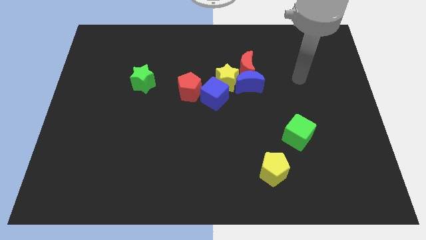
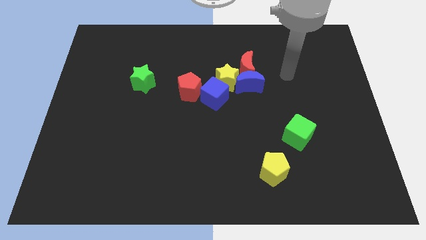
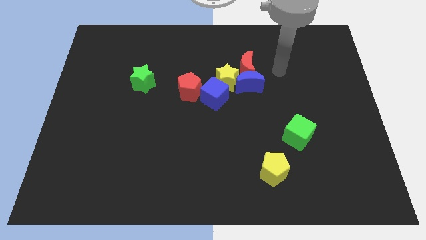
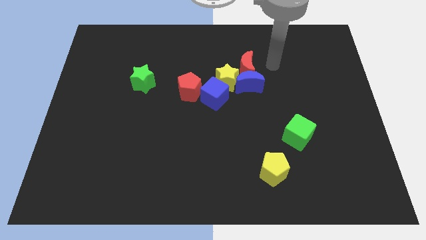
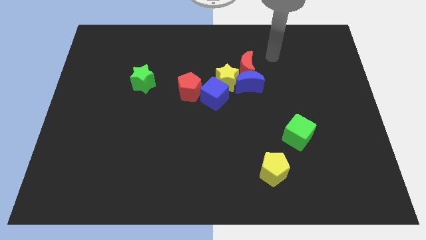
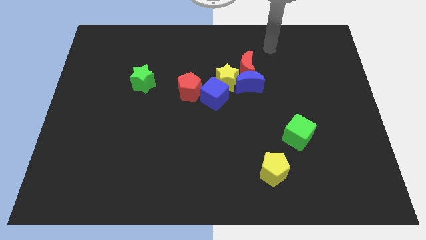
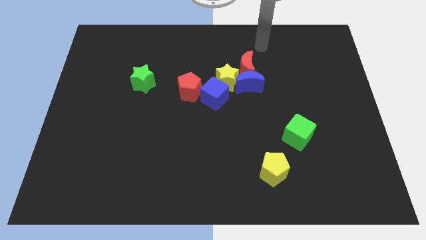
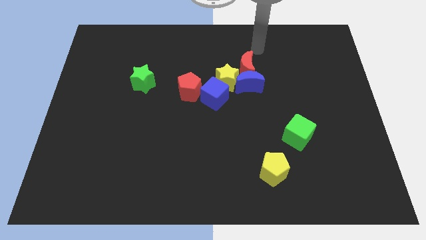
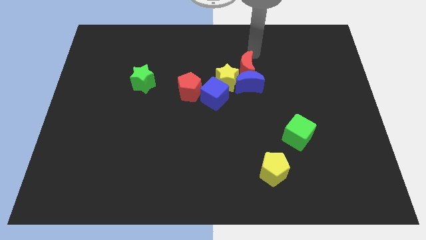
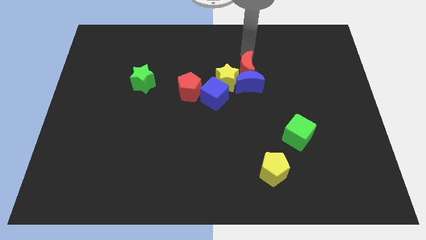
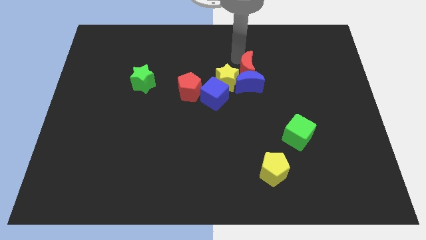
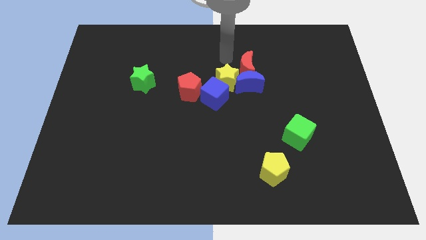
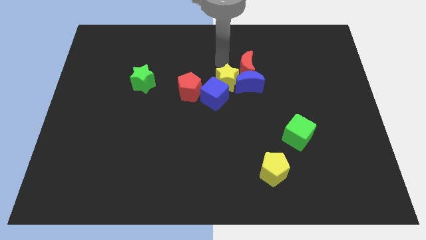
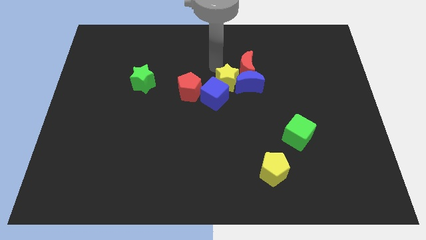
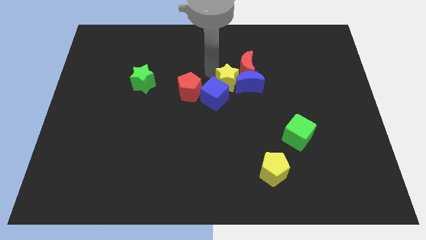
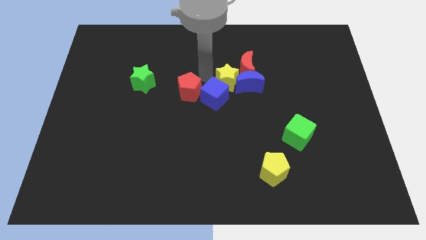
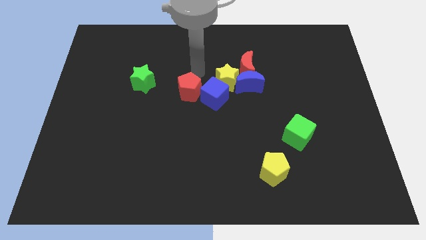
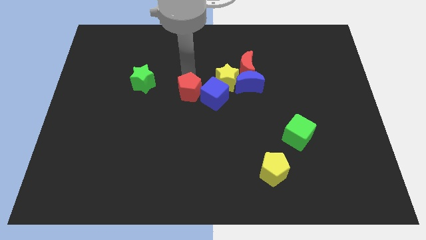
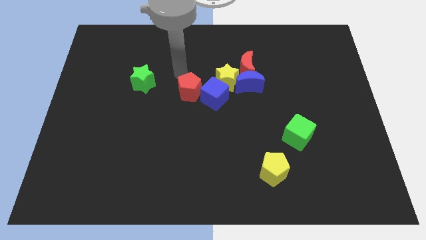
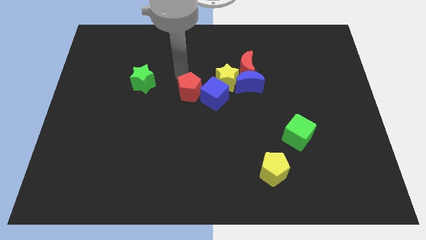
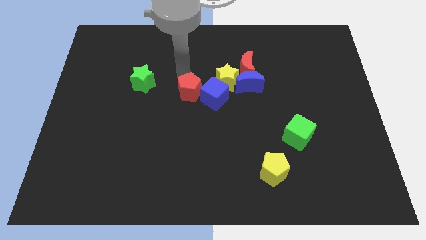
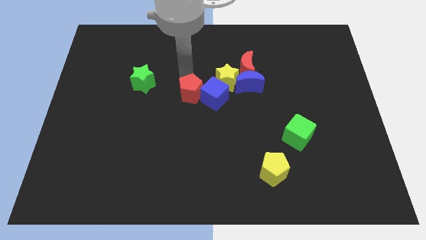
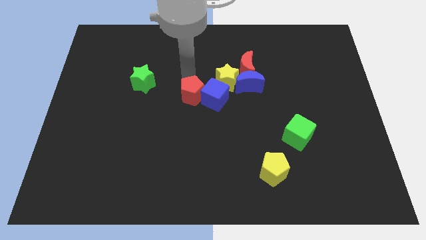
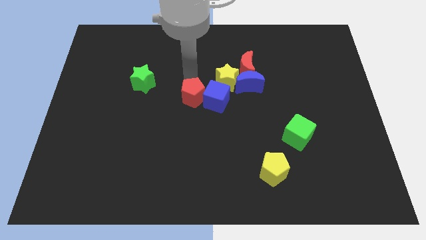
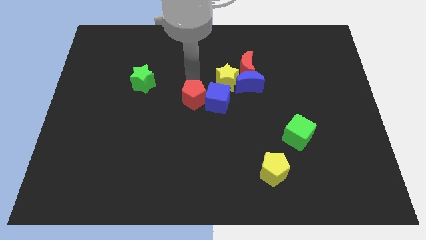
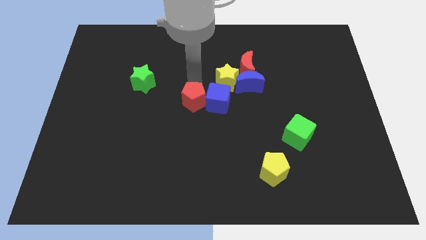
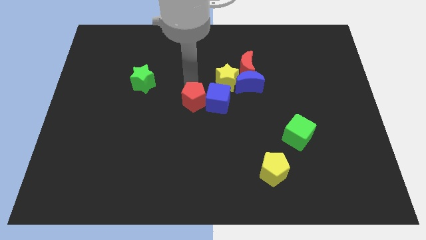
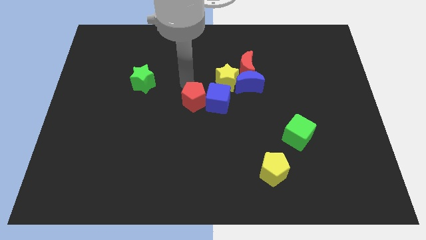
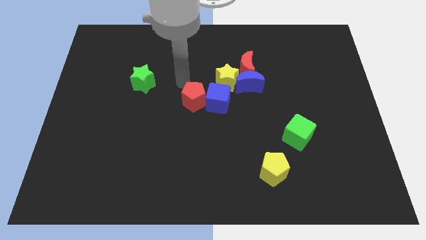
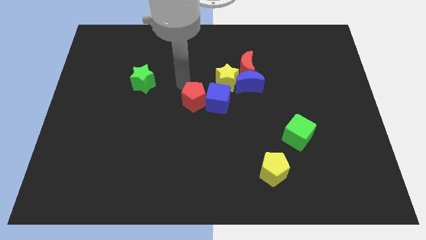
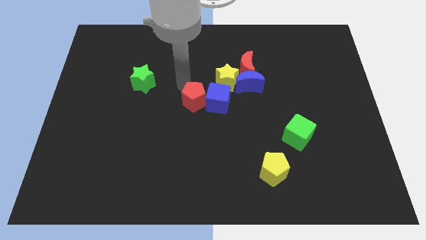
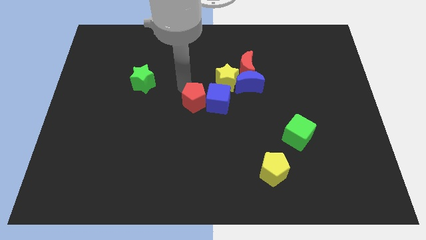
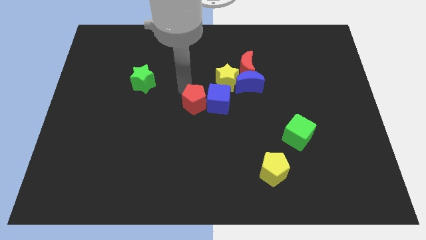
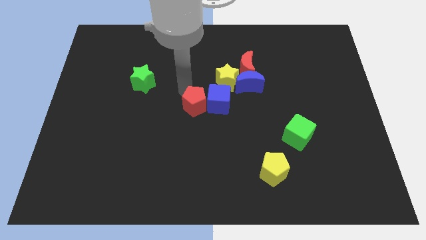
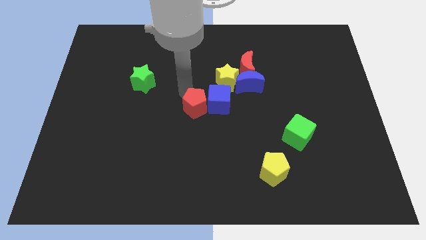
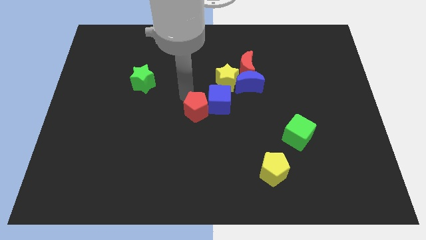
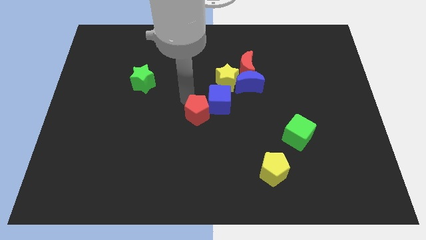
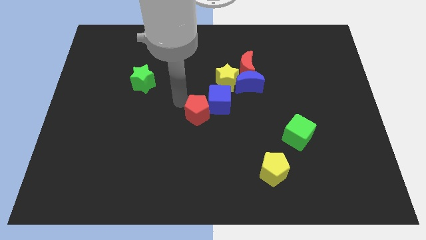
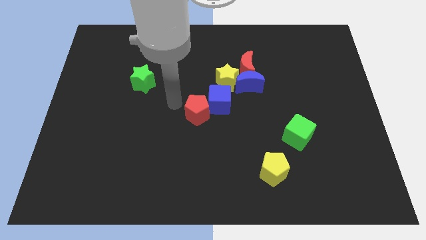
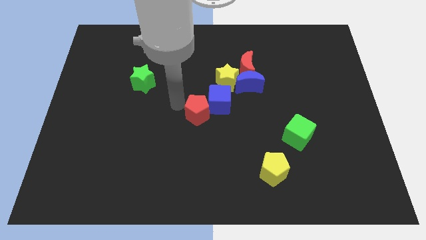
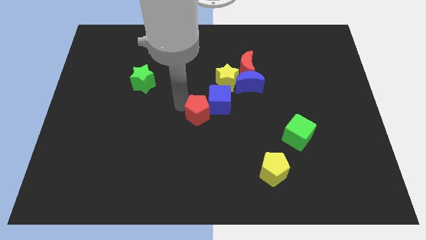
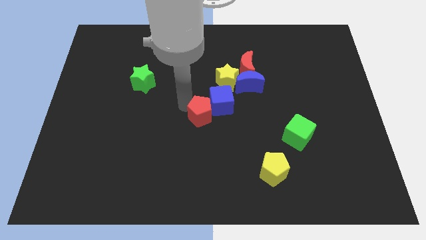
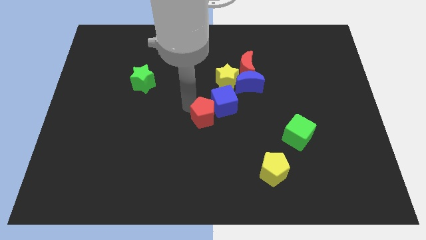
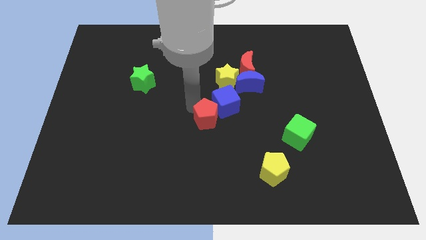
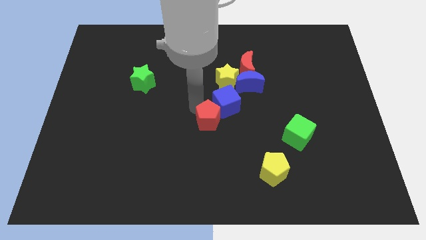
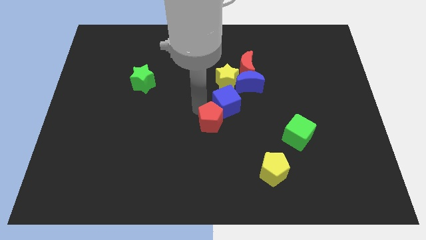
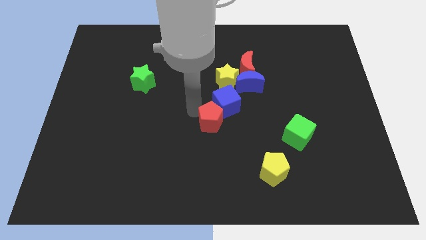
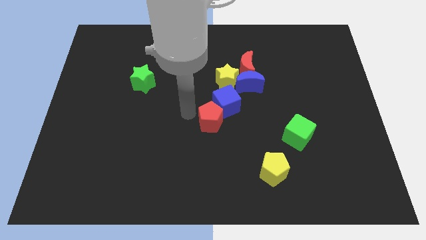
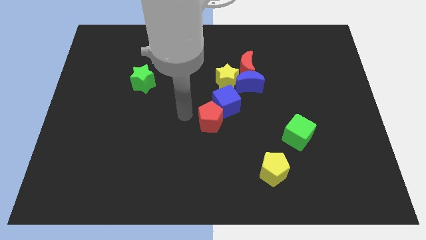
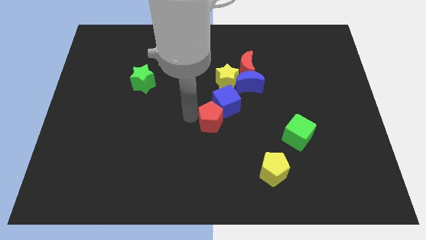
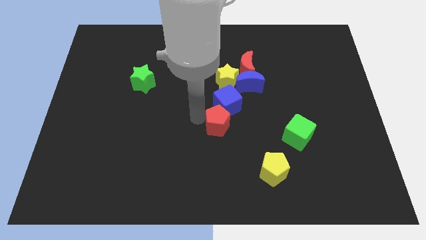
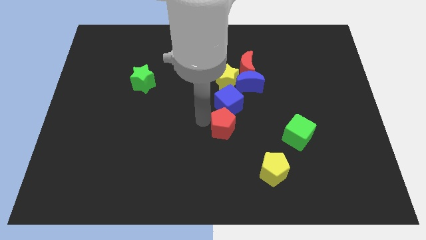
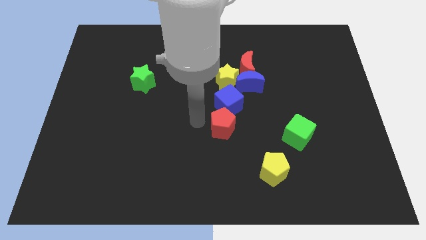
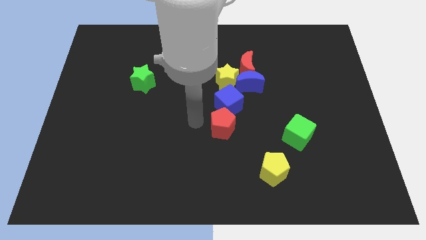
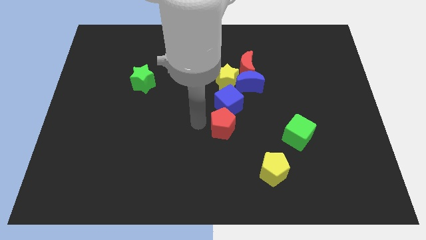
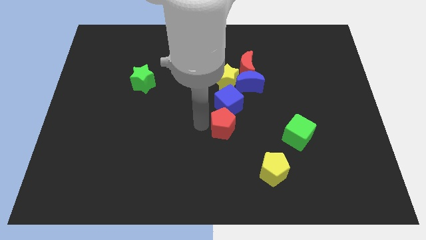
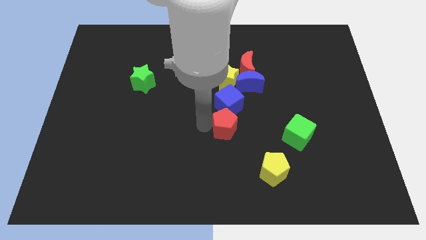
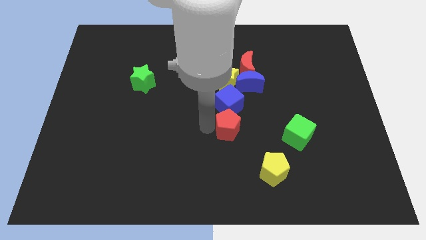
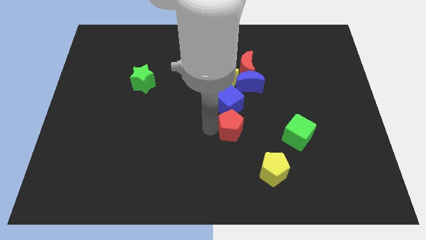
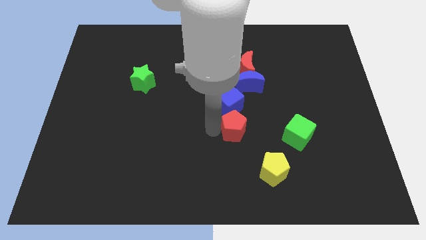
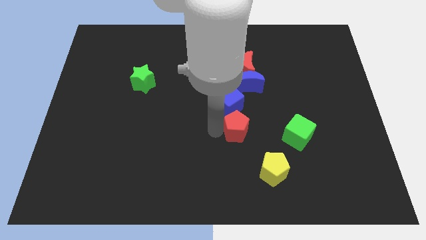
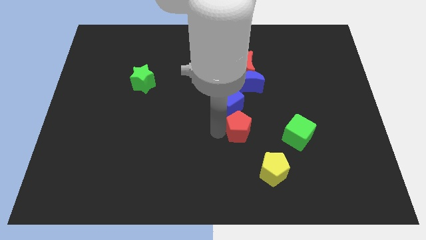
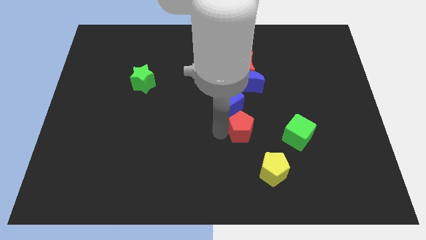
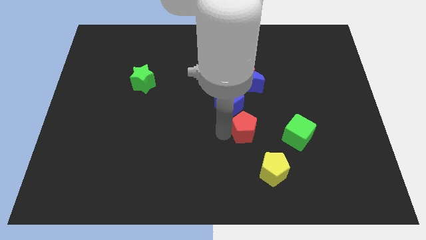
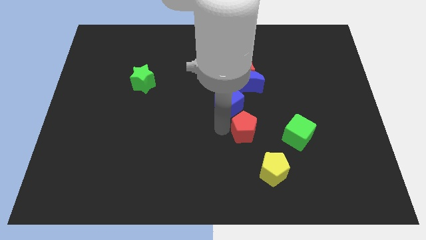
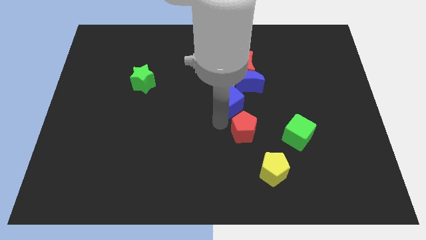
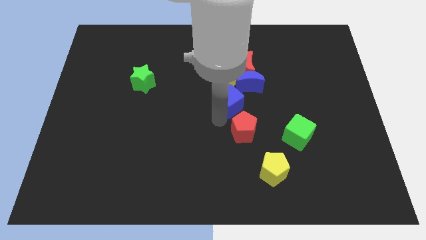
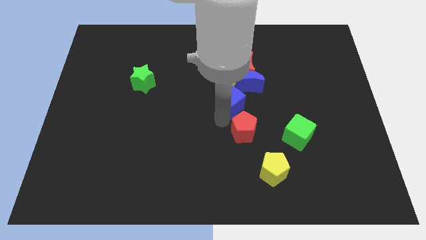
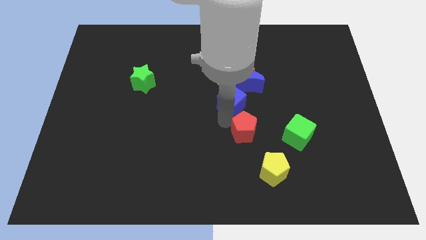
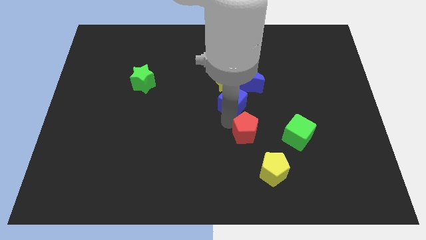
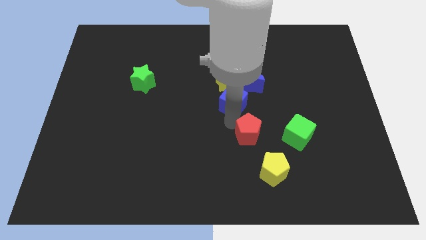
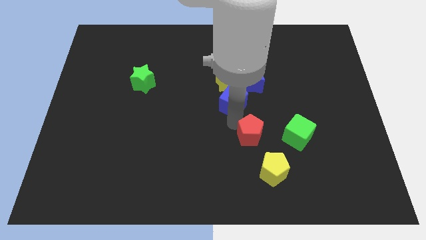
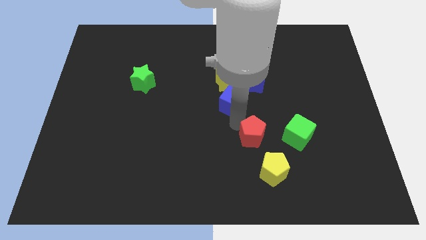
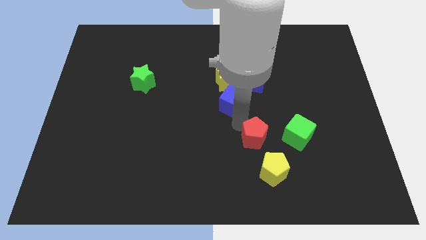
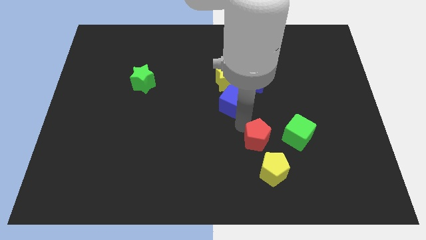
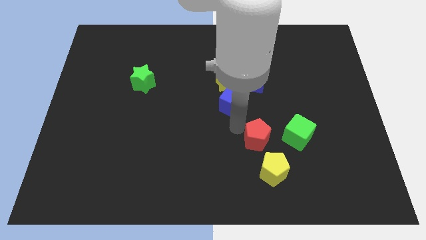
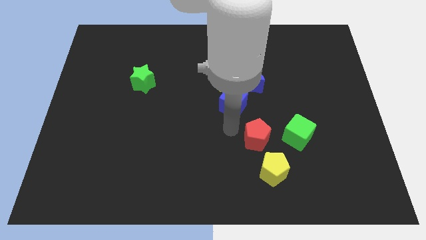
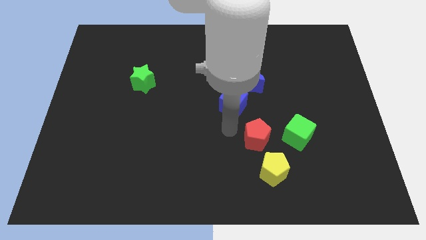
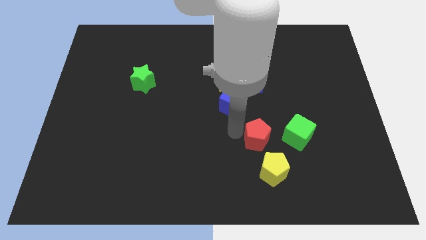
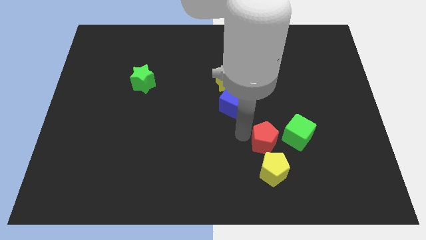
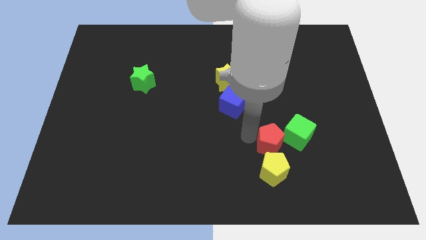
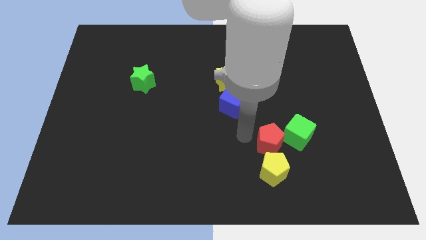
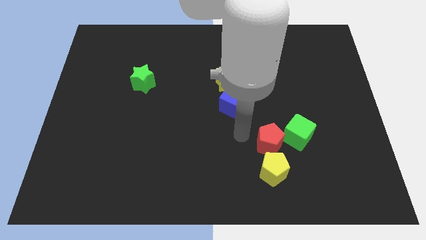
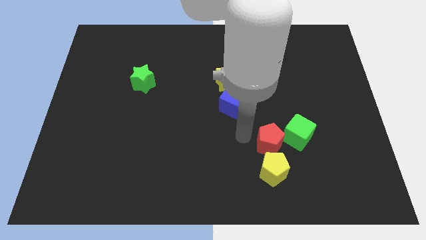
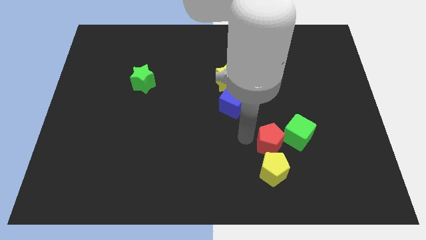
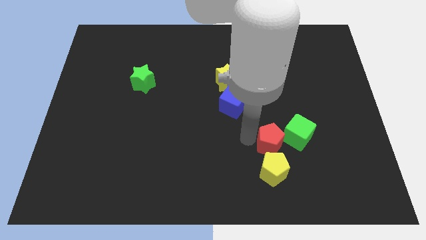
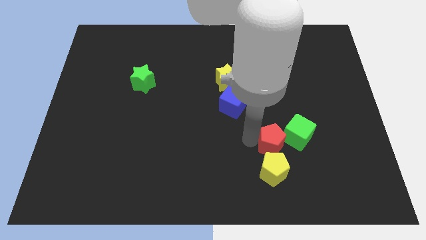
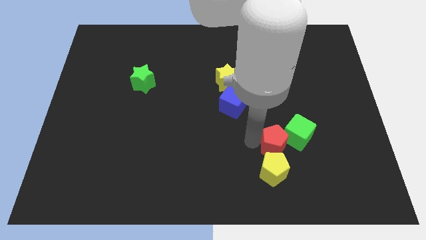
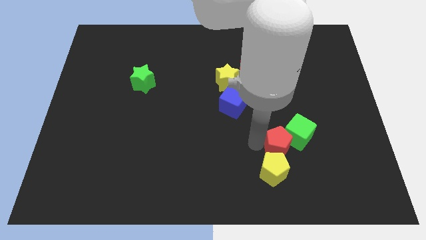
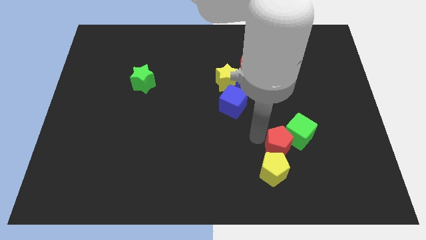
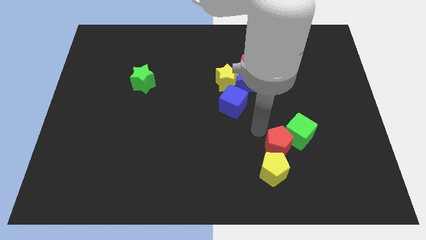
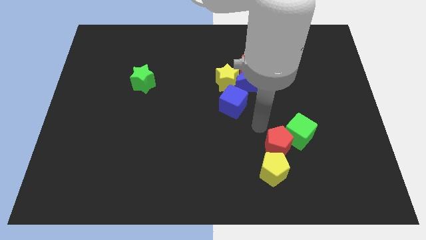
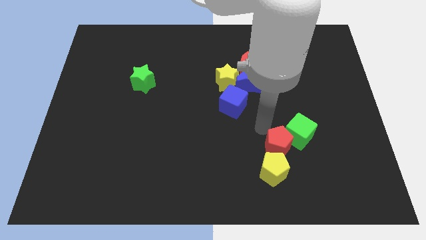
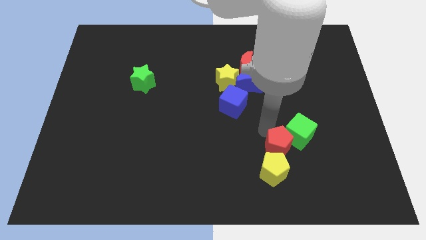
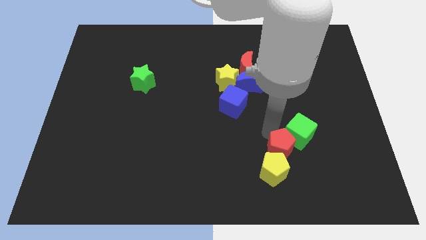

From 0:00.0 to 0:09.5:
move the red pentagon to the bottom of the green cube
